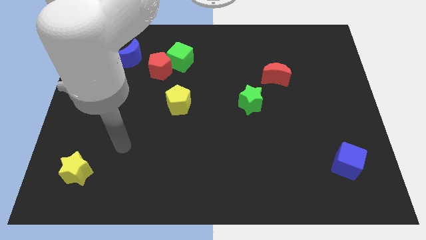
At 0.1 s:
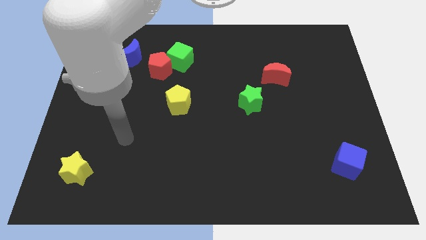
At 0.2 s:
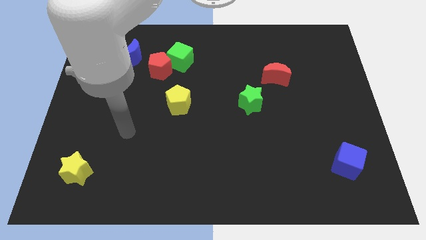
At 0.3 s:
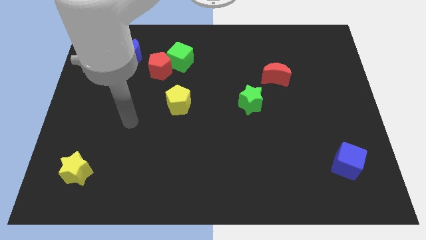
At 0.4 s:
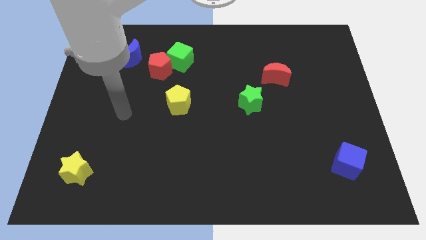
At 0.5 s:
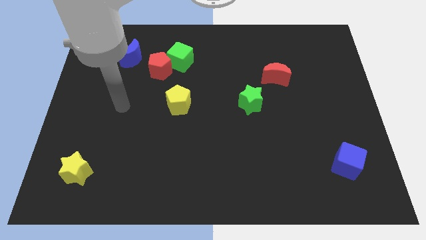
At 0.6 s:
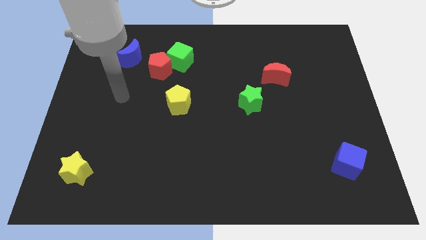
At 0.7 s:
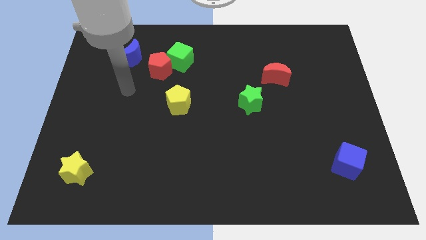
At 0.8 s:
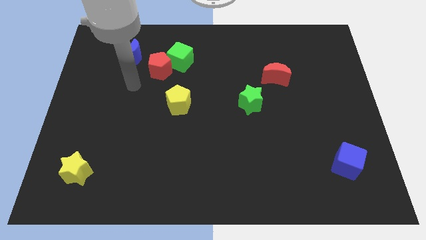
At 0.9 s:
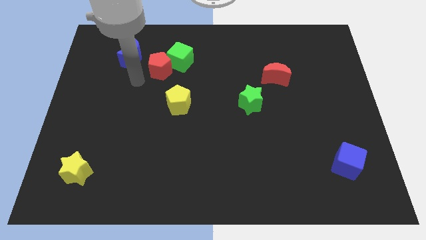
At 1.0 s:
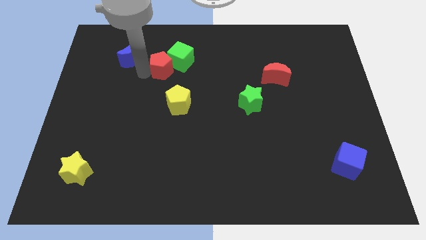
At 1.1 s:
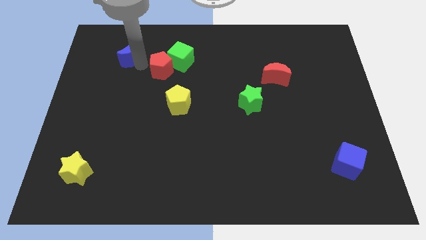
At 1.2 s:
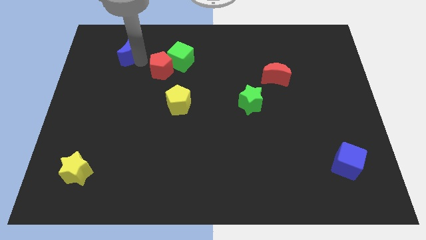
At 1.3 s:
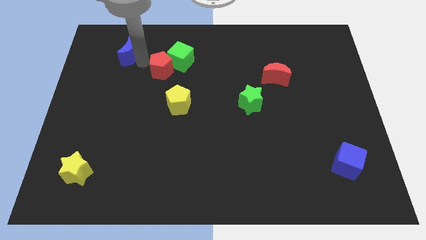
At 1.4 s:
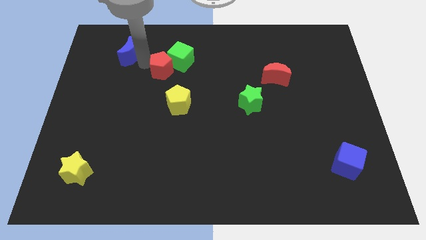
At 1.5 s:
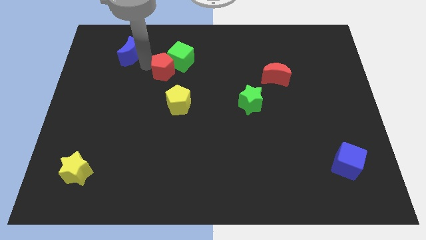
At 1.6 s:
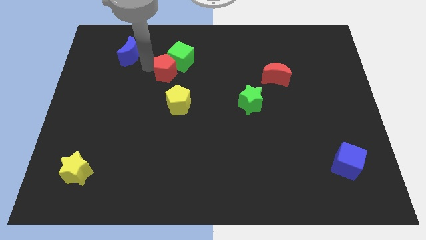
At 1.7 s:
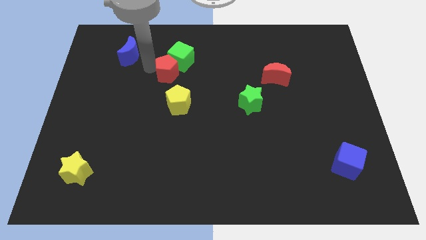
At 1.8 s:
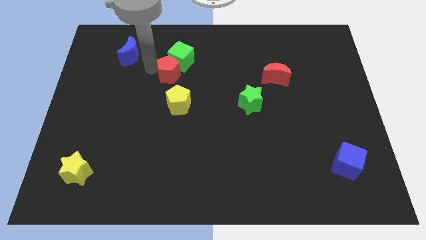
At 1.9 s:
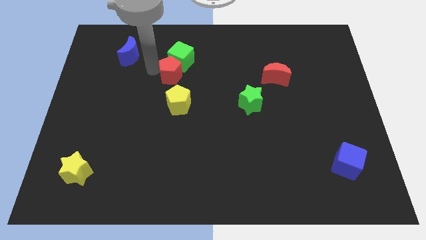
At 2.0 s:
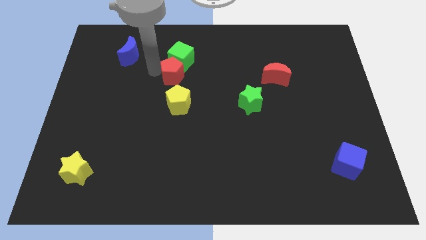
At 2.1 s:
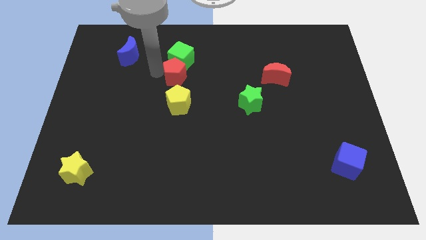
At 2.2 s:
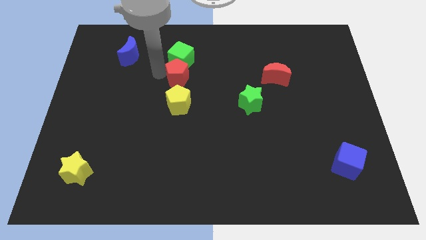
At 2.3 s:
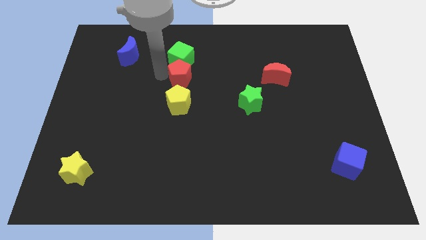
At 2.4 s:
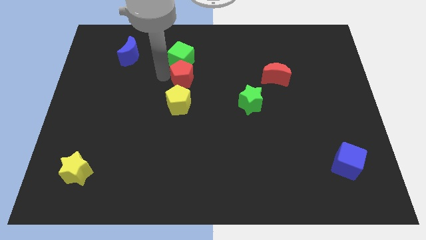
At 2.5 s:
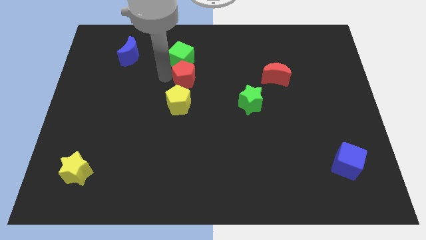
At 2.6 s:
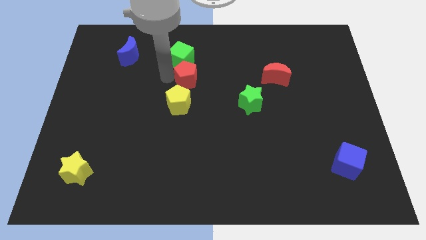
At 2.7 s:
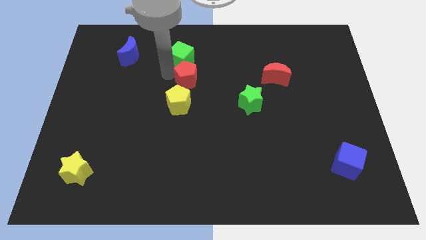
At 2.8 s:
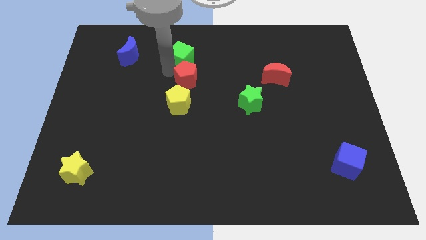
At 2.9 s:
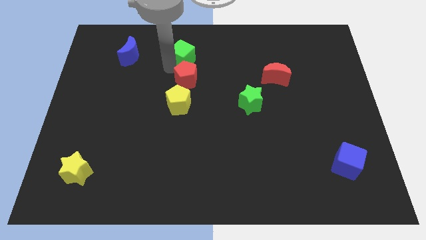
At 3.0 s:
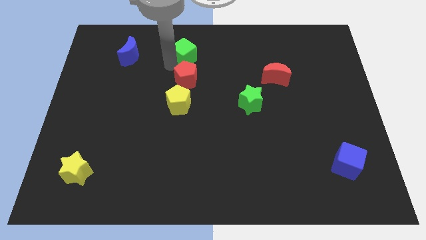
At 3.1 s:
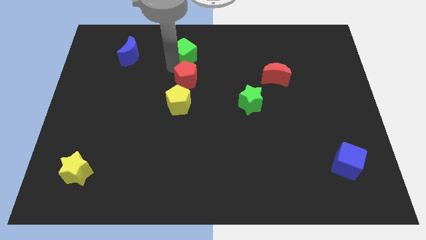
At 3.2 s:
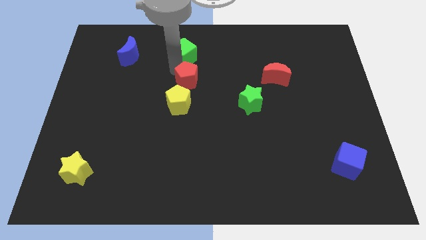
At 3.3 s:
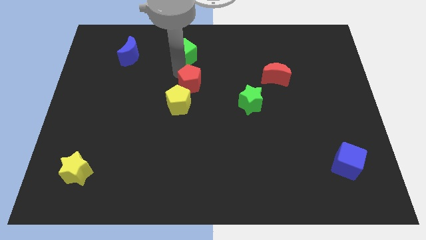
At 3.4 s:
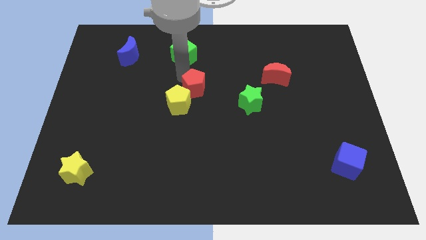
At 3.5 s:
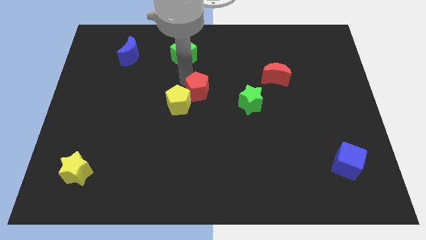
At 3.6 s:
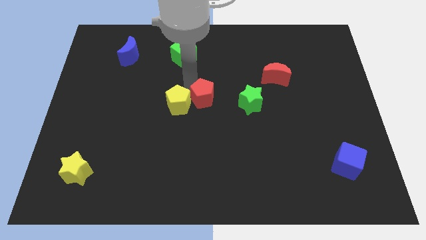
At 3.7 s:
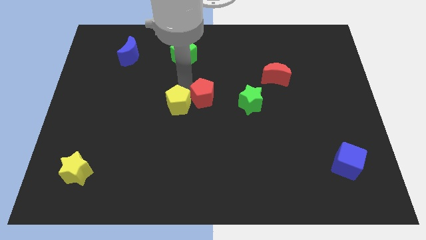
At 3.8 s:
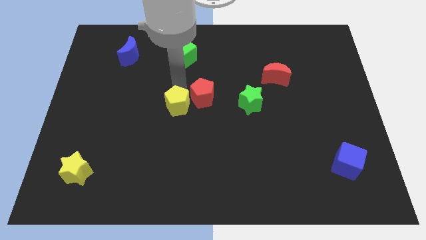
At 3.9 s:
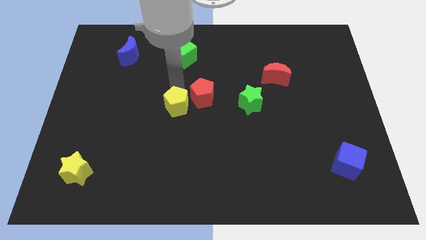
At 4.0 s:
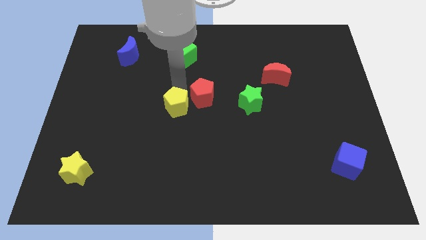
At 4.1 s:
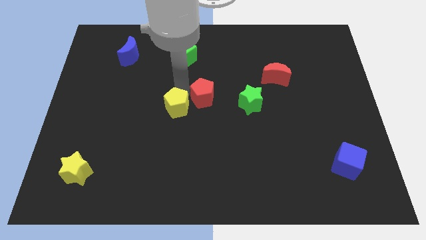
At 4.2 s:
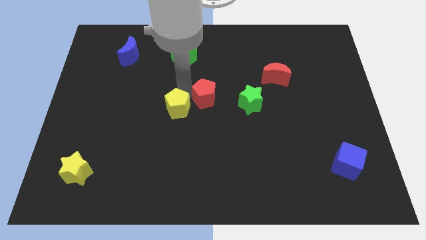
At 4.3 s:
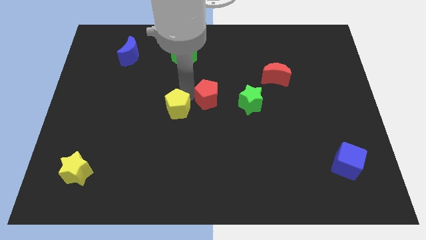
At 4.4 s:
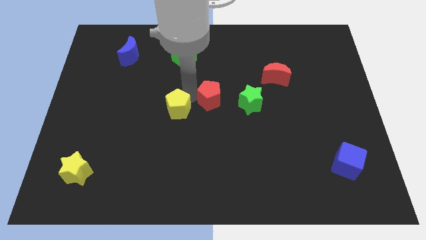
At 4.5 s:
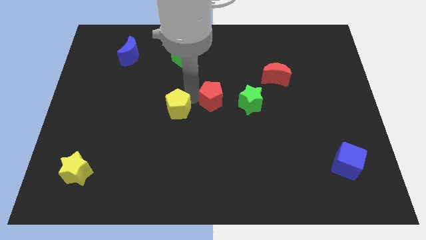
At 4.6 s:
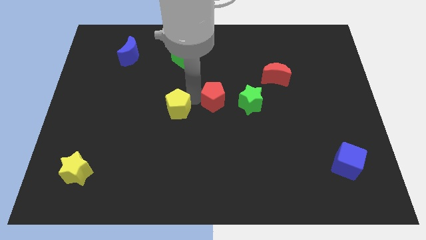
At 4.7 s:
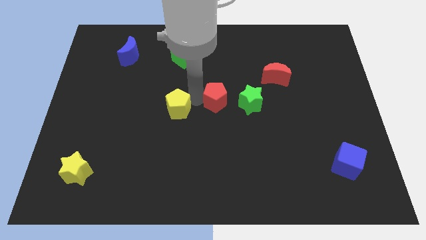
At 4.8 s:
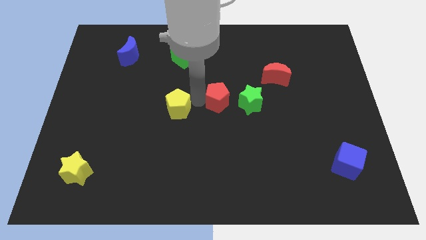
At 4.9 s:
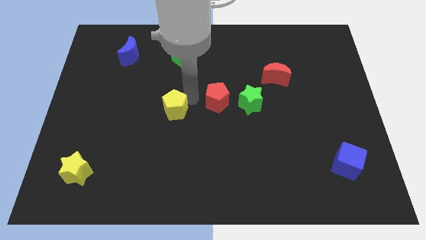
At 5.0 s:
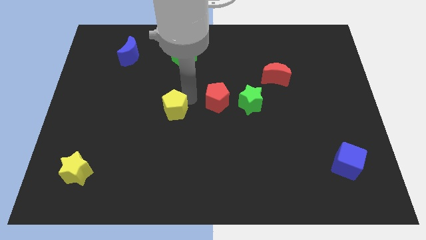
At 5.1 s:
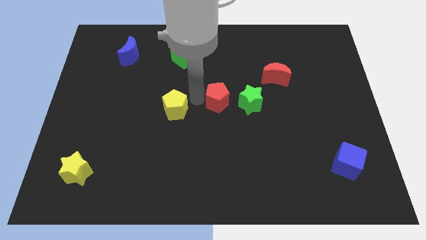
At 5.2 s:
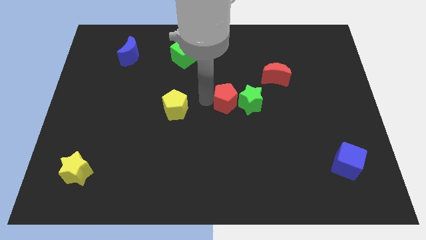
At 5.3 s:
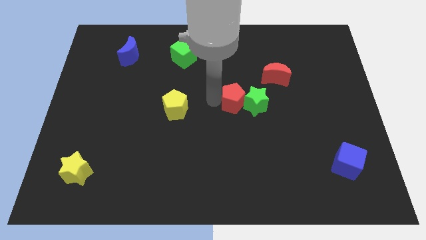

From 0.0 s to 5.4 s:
put the red pentagon close to the green star

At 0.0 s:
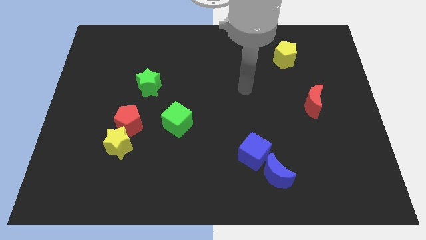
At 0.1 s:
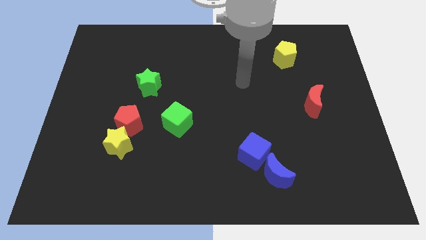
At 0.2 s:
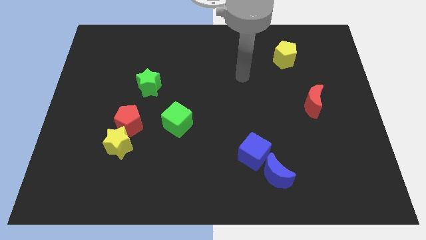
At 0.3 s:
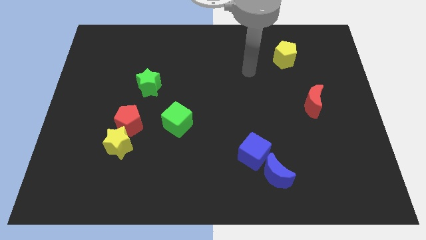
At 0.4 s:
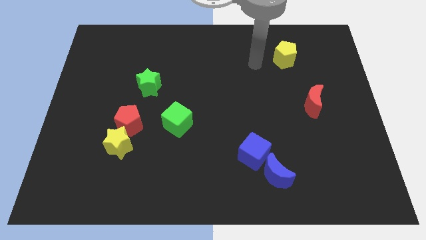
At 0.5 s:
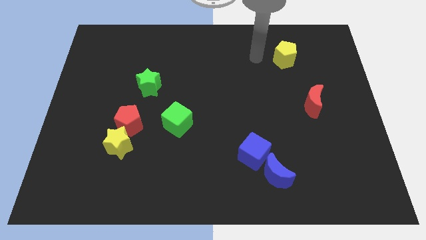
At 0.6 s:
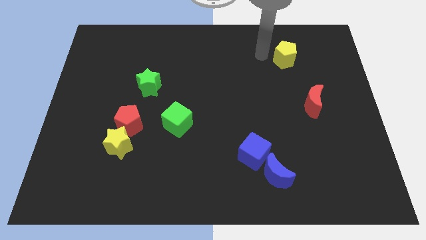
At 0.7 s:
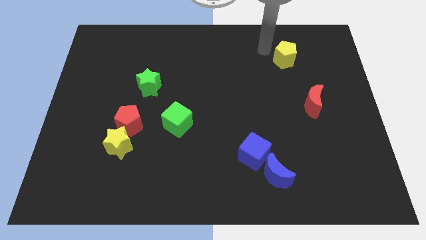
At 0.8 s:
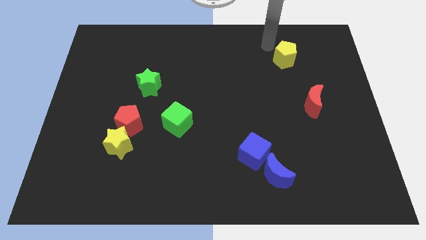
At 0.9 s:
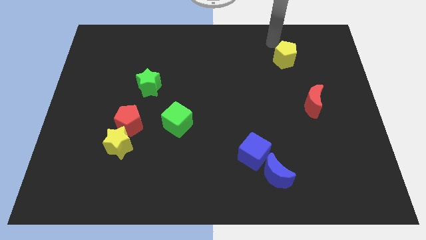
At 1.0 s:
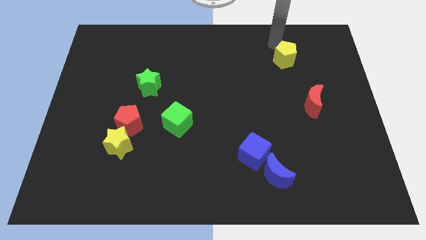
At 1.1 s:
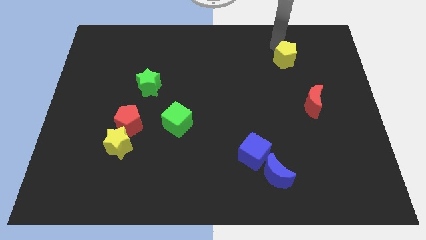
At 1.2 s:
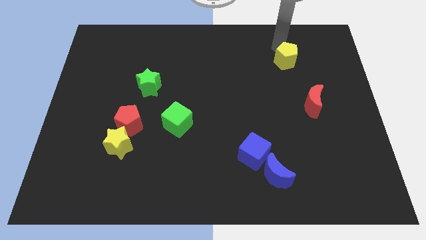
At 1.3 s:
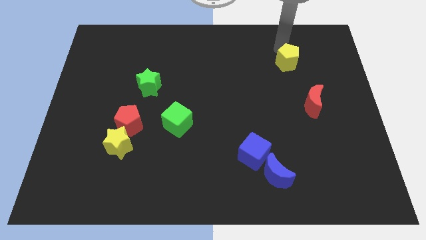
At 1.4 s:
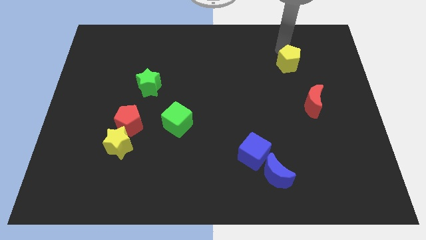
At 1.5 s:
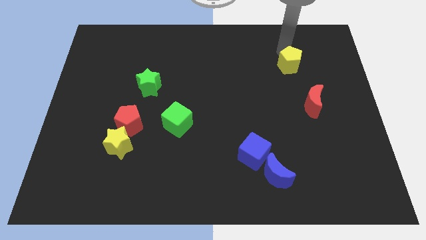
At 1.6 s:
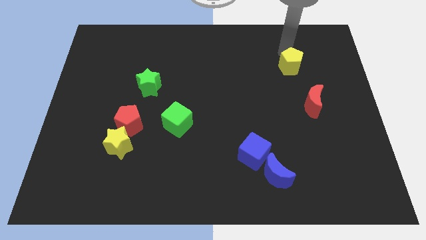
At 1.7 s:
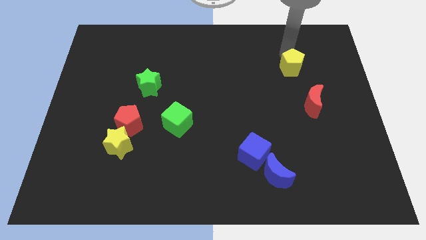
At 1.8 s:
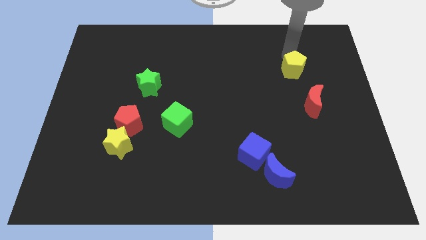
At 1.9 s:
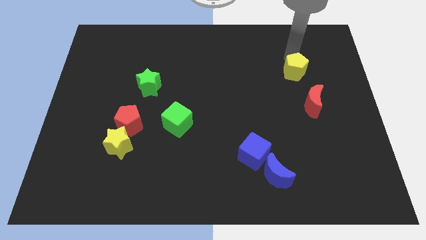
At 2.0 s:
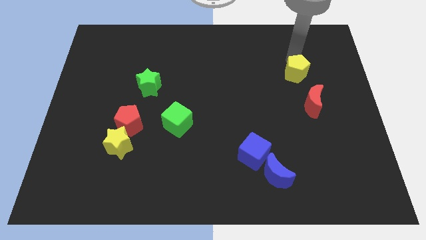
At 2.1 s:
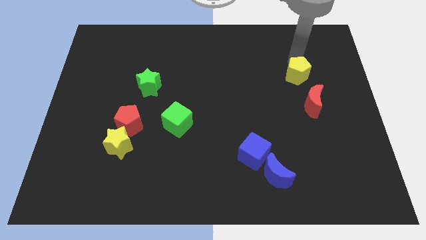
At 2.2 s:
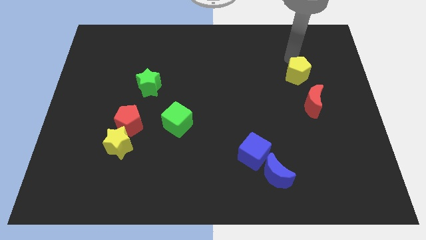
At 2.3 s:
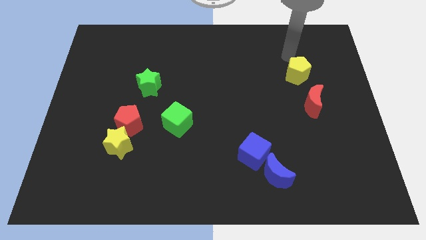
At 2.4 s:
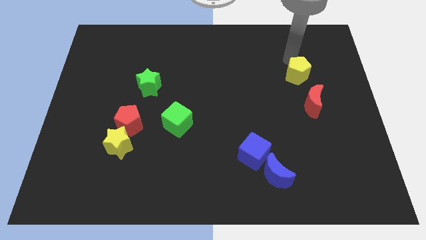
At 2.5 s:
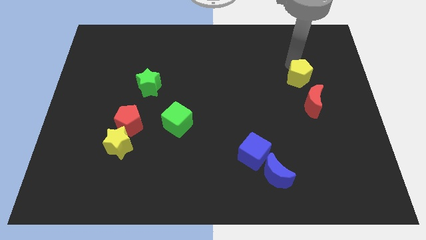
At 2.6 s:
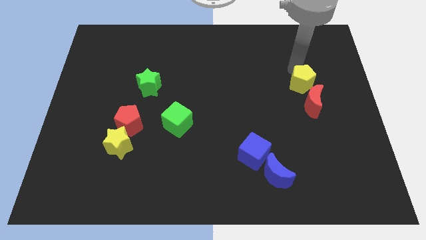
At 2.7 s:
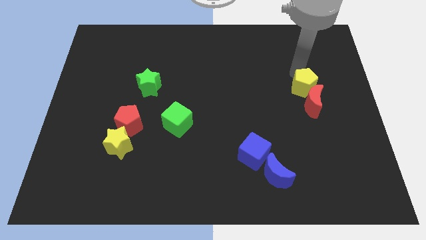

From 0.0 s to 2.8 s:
slide the yellow pentagon towards the red moon
